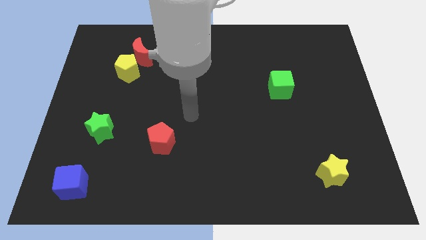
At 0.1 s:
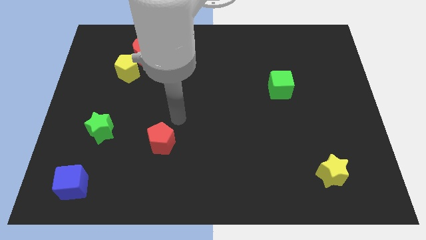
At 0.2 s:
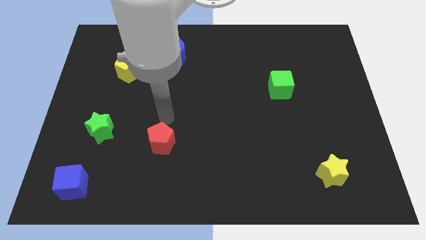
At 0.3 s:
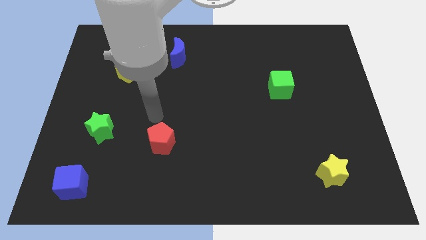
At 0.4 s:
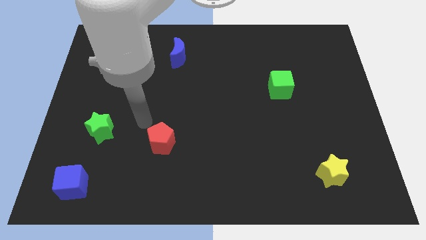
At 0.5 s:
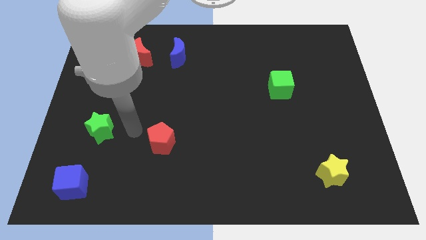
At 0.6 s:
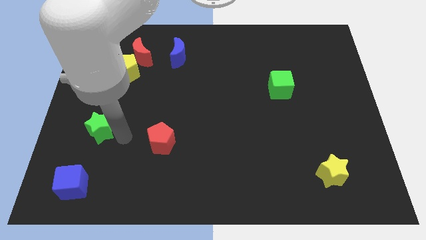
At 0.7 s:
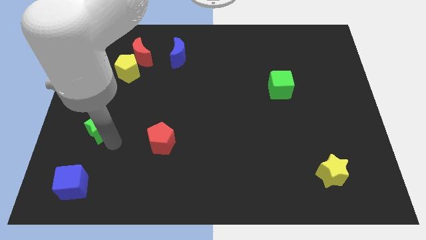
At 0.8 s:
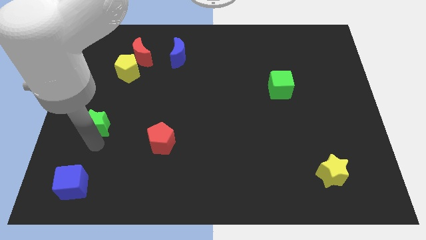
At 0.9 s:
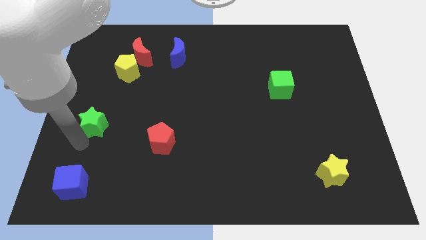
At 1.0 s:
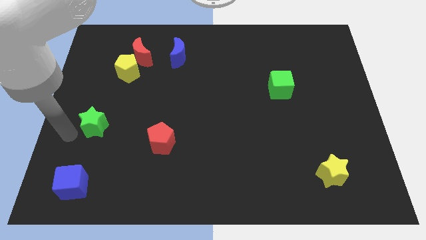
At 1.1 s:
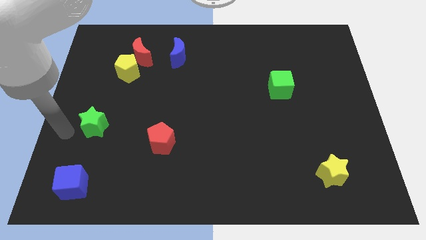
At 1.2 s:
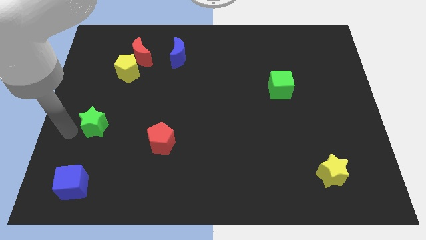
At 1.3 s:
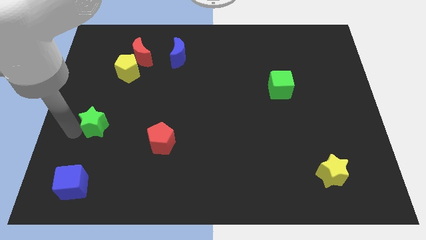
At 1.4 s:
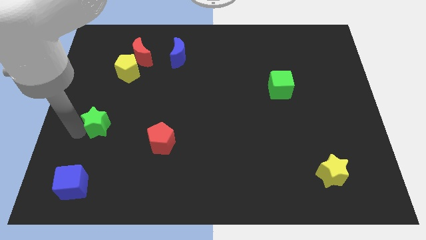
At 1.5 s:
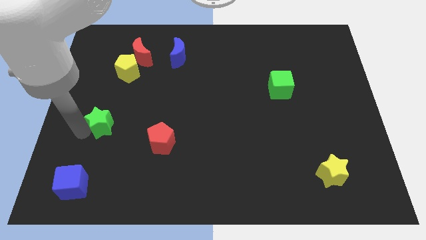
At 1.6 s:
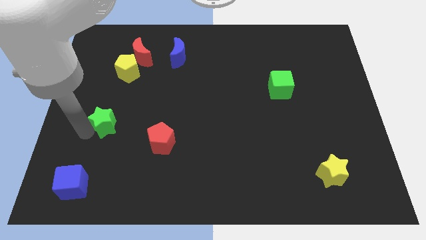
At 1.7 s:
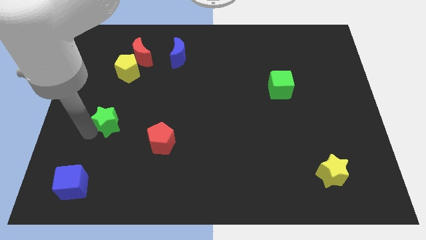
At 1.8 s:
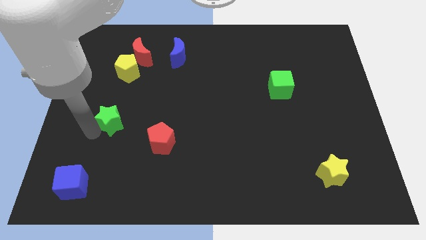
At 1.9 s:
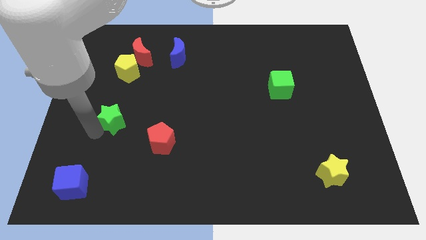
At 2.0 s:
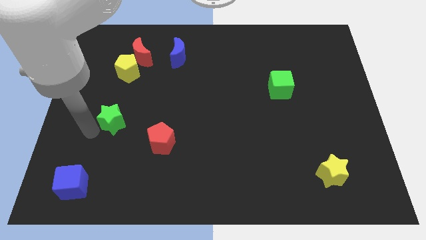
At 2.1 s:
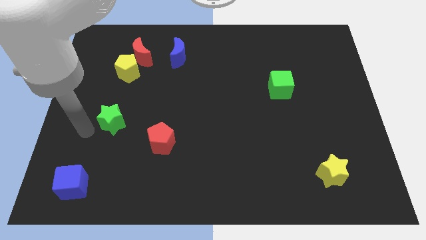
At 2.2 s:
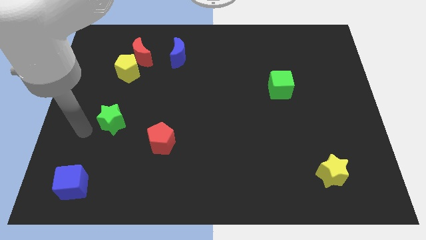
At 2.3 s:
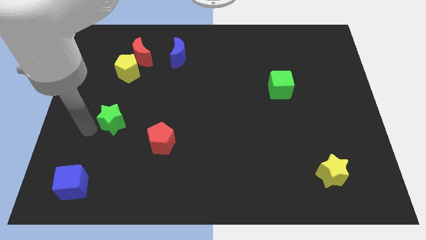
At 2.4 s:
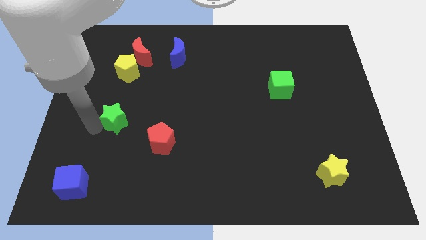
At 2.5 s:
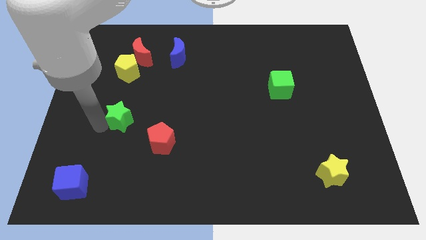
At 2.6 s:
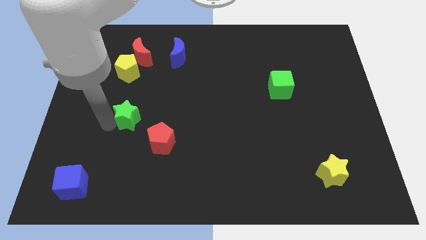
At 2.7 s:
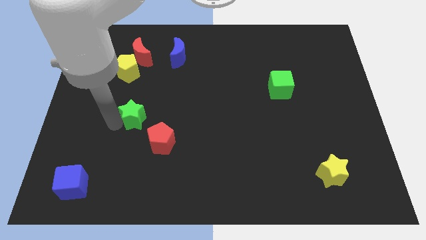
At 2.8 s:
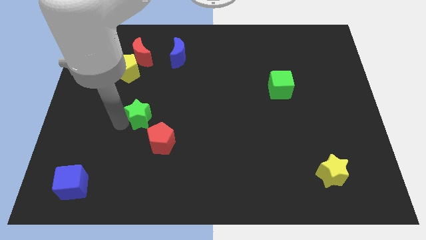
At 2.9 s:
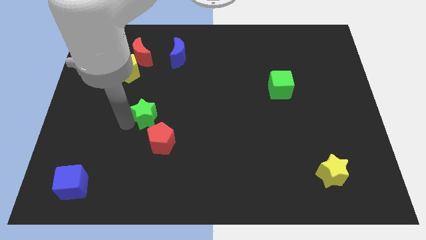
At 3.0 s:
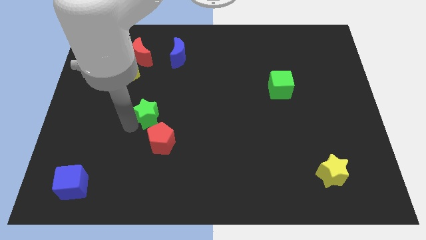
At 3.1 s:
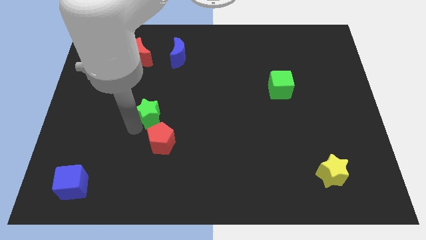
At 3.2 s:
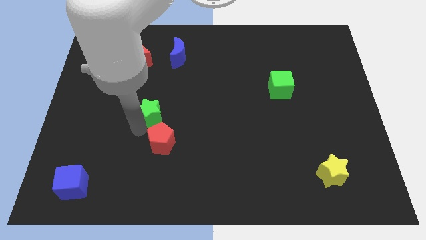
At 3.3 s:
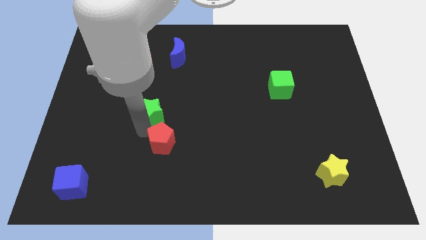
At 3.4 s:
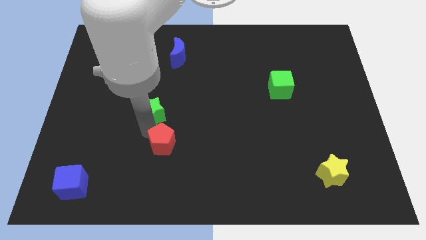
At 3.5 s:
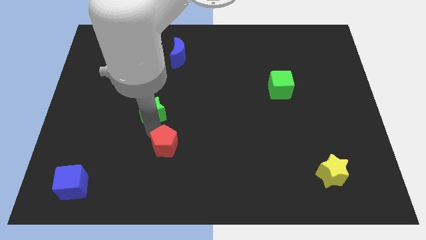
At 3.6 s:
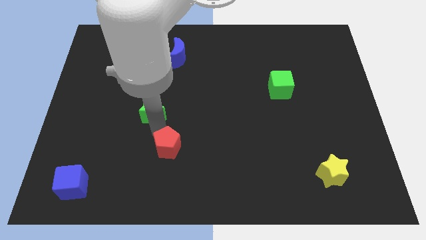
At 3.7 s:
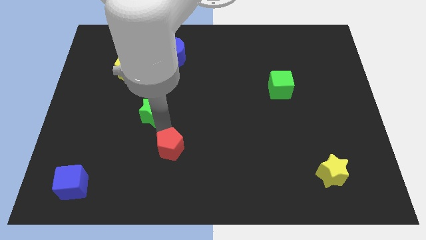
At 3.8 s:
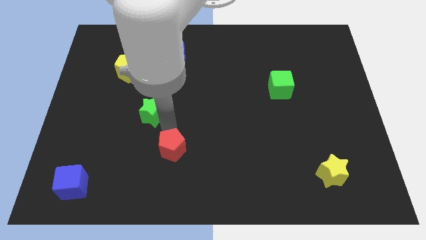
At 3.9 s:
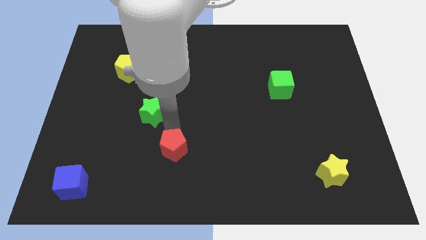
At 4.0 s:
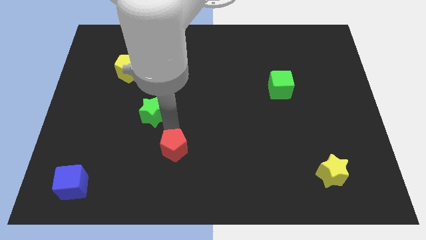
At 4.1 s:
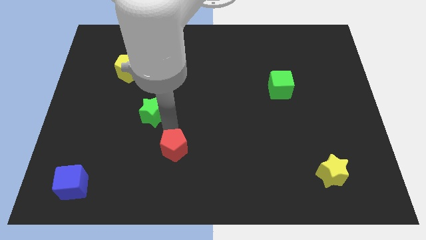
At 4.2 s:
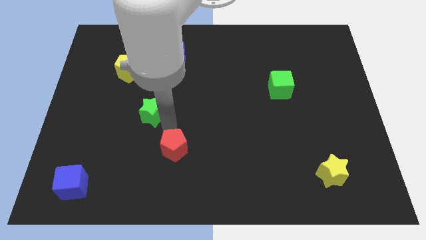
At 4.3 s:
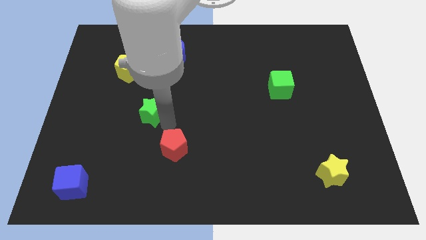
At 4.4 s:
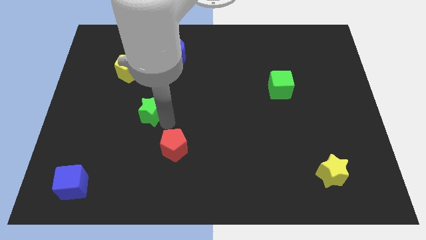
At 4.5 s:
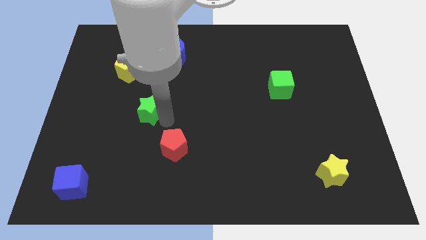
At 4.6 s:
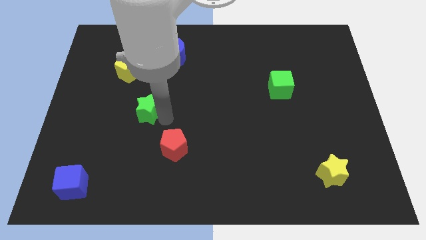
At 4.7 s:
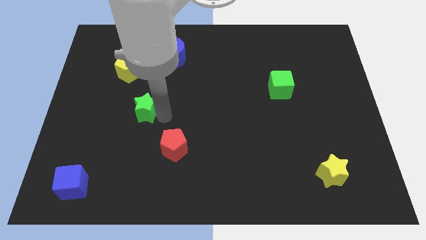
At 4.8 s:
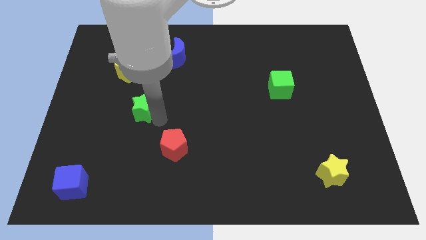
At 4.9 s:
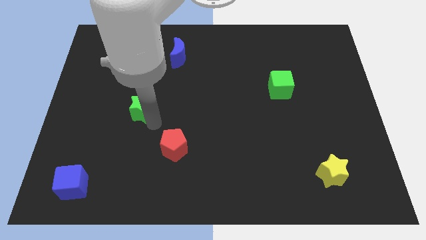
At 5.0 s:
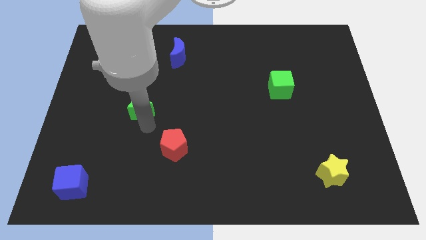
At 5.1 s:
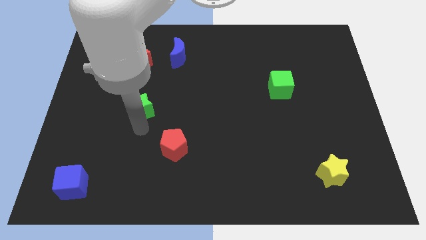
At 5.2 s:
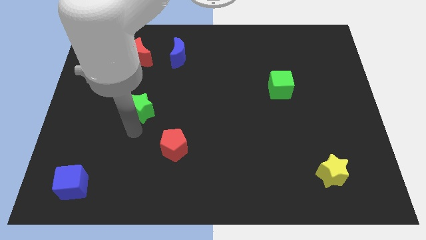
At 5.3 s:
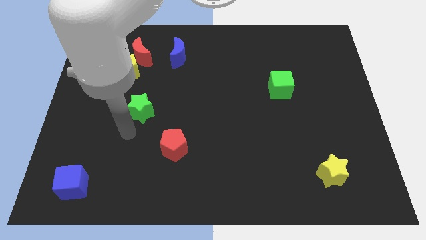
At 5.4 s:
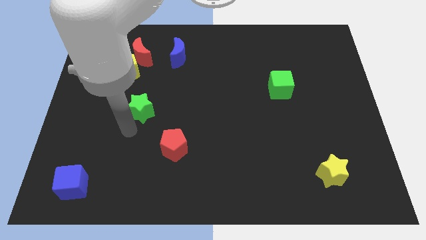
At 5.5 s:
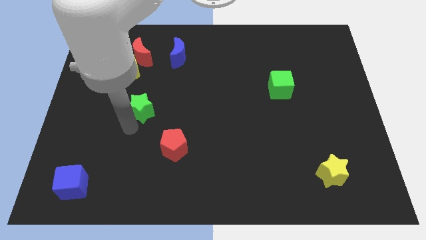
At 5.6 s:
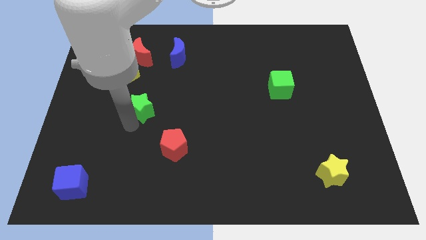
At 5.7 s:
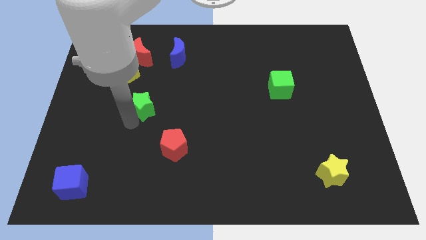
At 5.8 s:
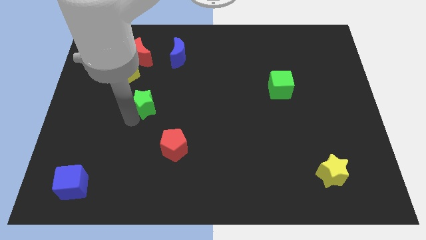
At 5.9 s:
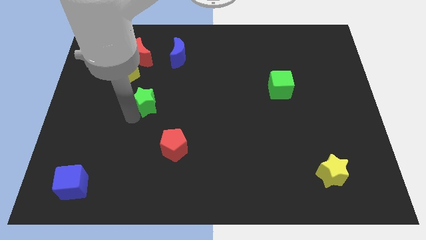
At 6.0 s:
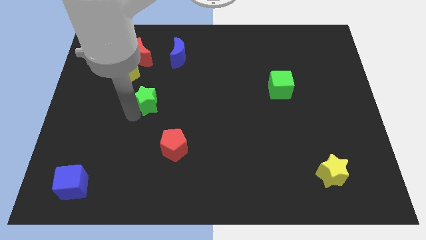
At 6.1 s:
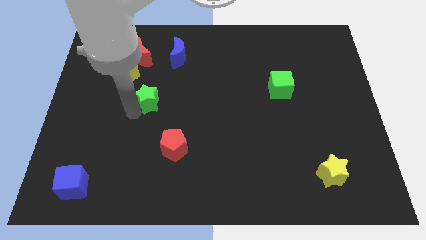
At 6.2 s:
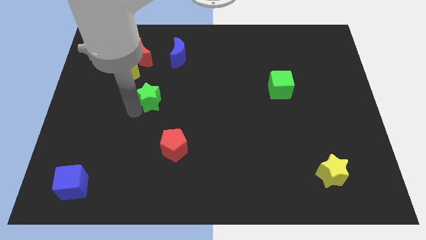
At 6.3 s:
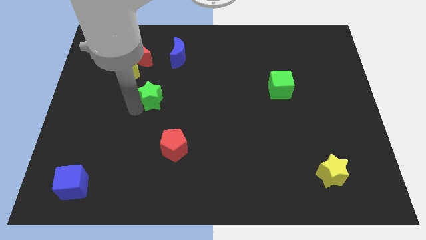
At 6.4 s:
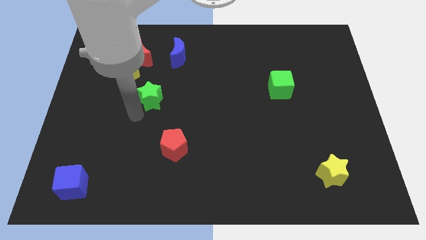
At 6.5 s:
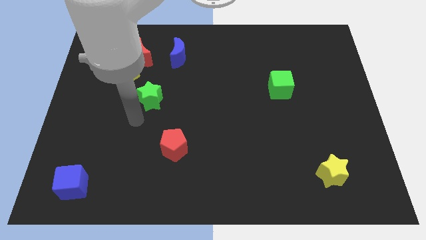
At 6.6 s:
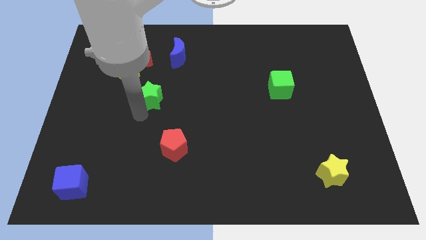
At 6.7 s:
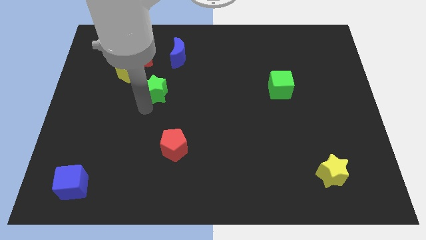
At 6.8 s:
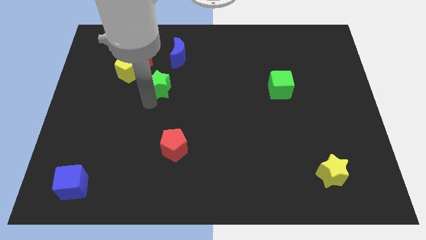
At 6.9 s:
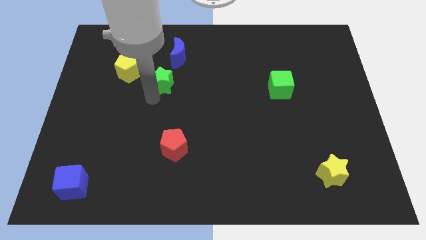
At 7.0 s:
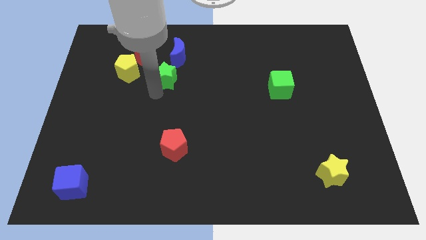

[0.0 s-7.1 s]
slide the green star upwards and to the right

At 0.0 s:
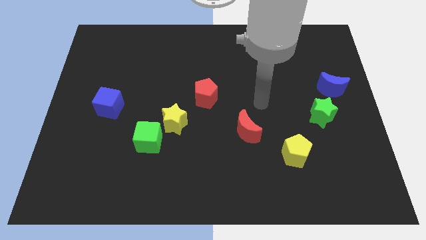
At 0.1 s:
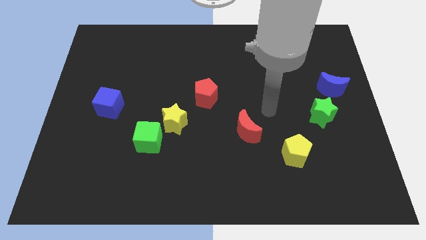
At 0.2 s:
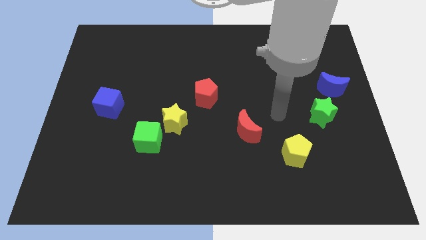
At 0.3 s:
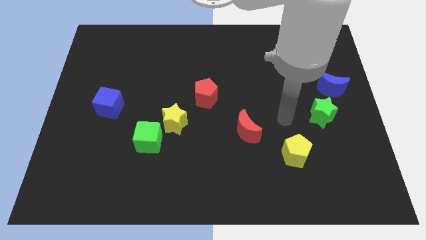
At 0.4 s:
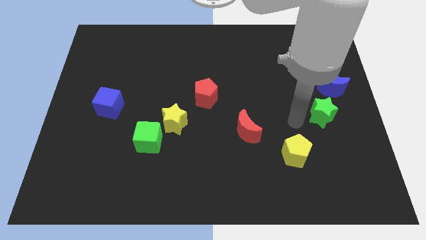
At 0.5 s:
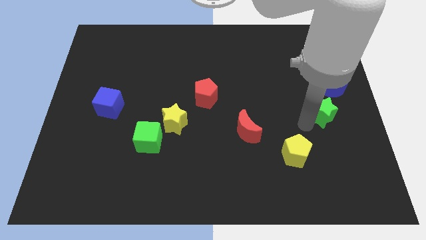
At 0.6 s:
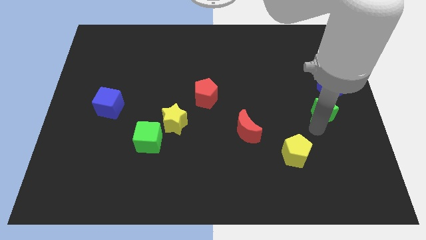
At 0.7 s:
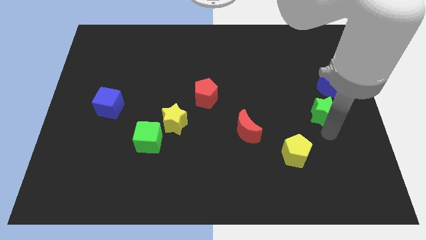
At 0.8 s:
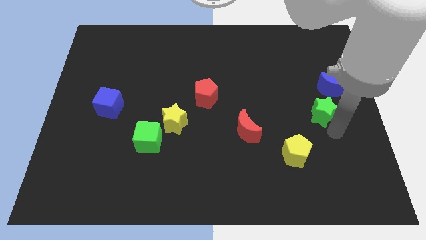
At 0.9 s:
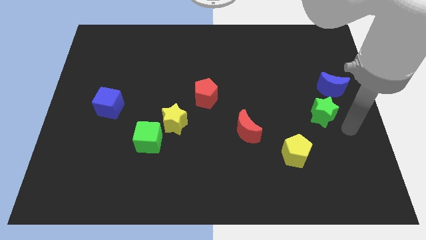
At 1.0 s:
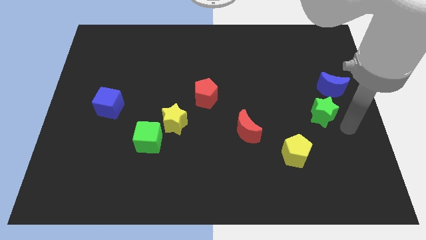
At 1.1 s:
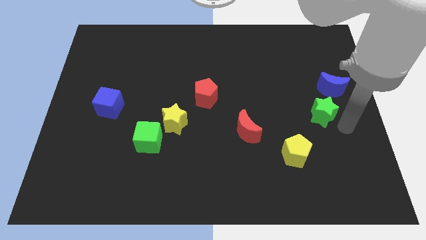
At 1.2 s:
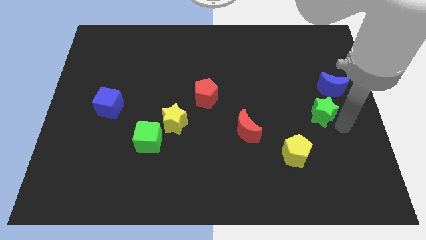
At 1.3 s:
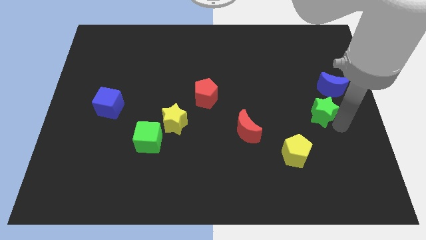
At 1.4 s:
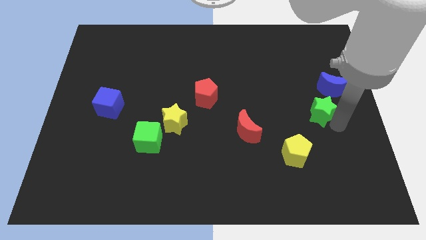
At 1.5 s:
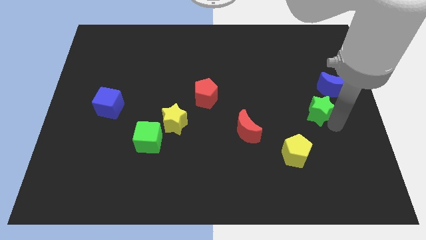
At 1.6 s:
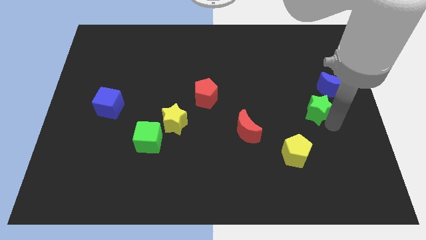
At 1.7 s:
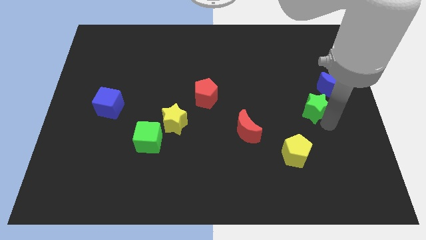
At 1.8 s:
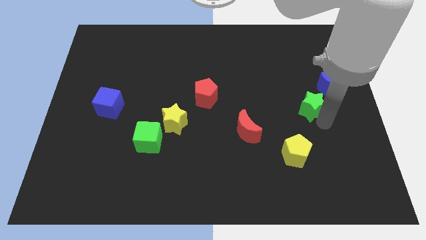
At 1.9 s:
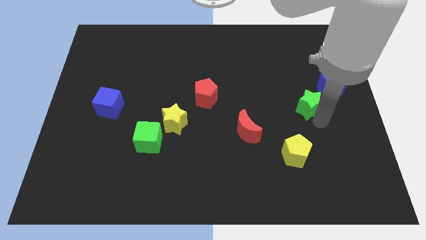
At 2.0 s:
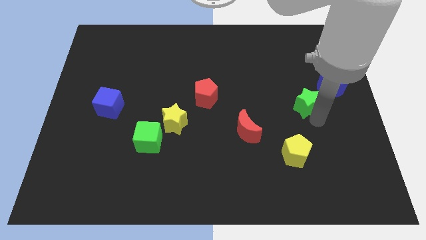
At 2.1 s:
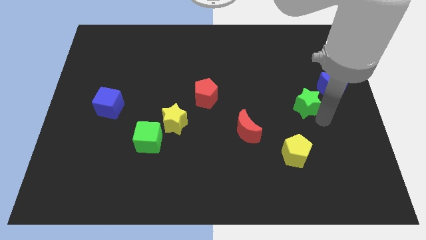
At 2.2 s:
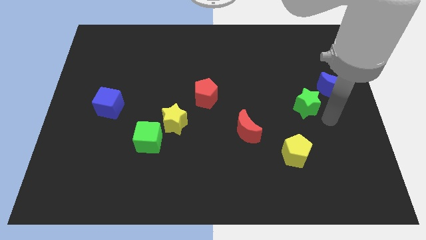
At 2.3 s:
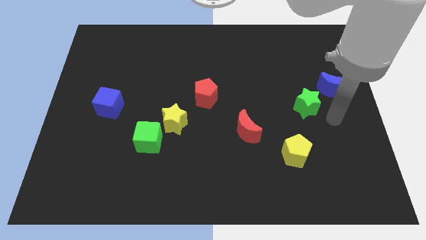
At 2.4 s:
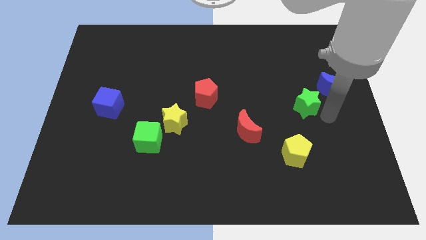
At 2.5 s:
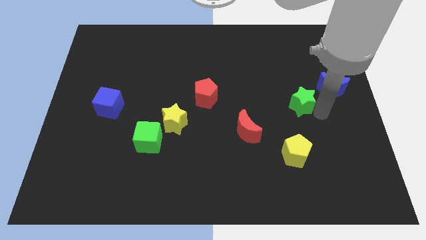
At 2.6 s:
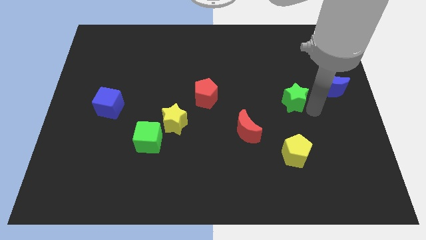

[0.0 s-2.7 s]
slightly push the green star diagonally up and to the left
